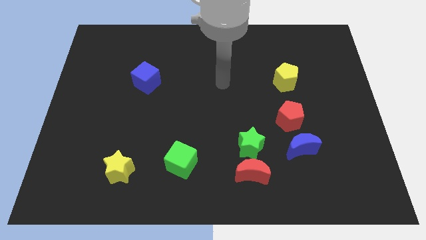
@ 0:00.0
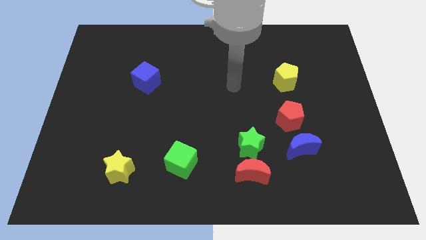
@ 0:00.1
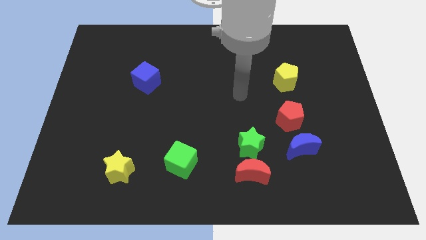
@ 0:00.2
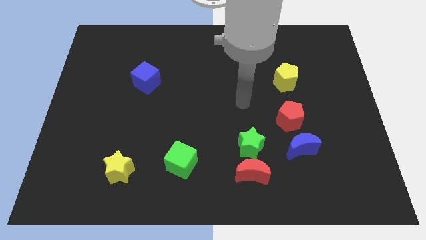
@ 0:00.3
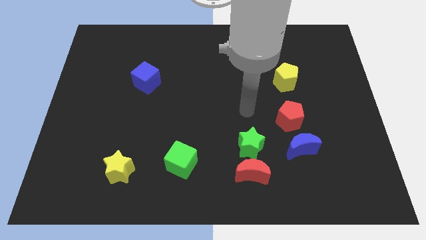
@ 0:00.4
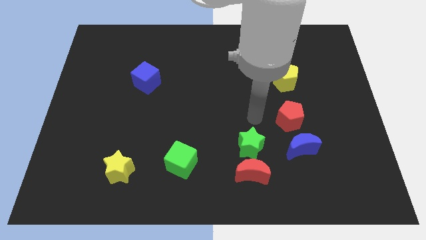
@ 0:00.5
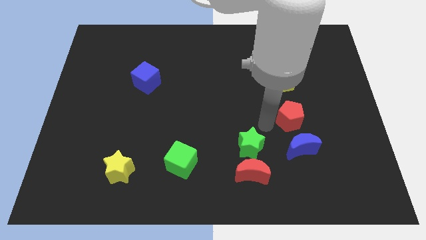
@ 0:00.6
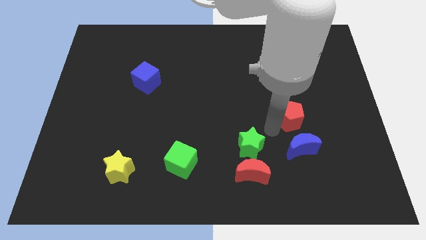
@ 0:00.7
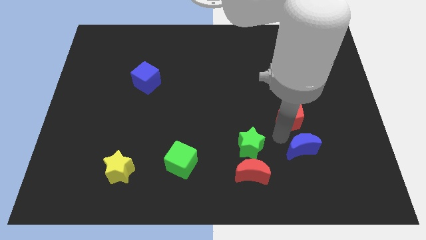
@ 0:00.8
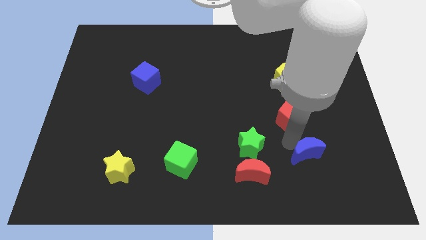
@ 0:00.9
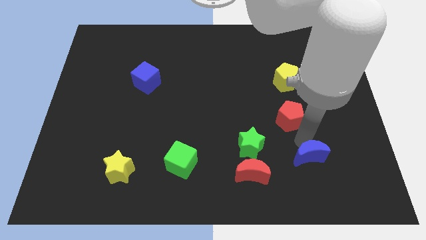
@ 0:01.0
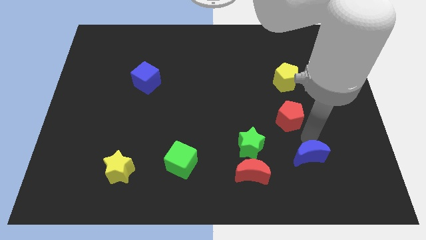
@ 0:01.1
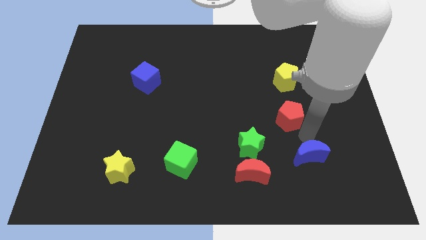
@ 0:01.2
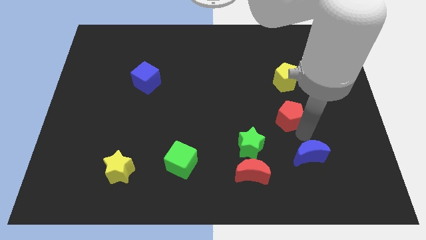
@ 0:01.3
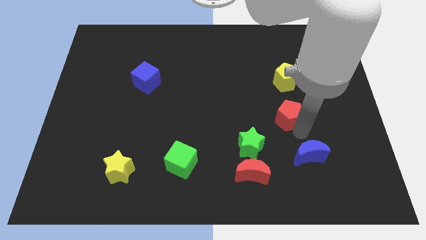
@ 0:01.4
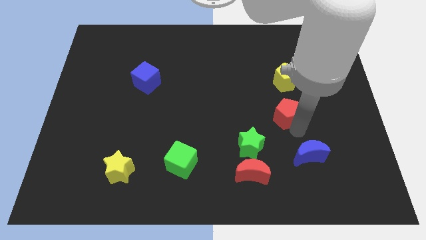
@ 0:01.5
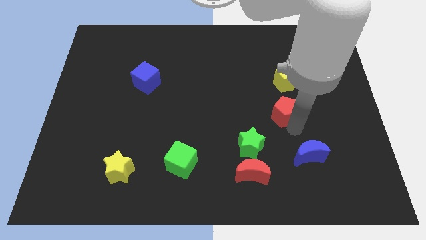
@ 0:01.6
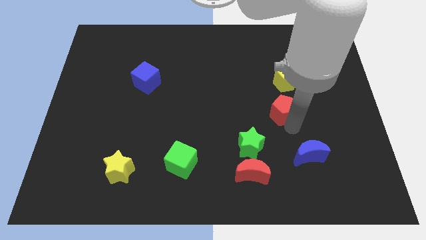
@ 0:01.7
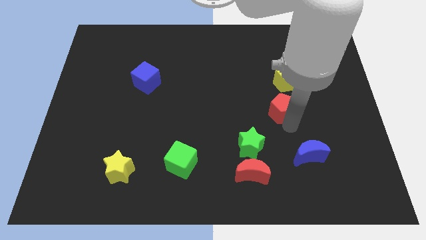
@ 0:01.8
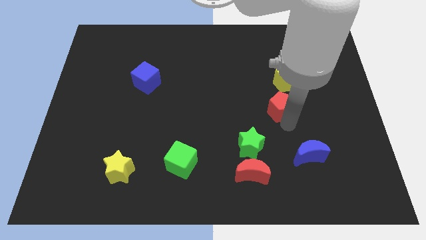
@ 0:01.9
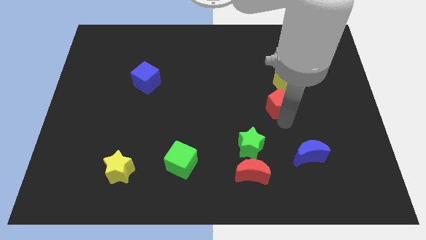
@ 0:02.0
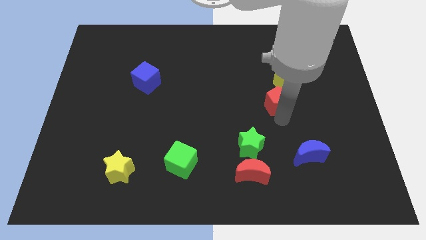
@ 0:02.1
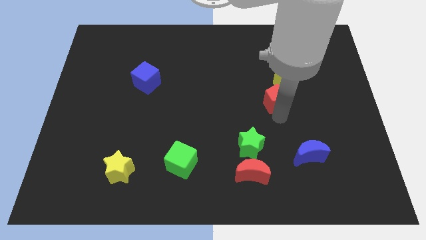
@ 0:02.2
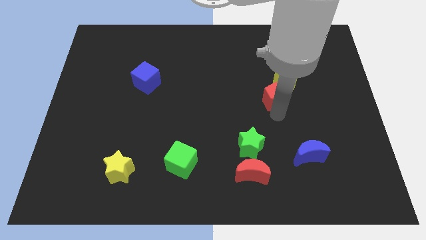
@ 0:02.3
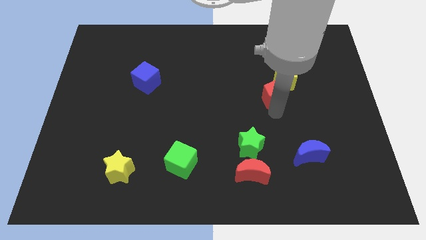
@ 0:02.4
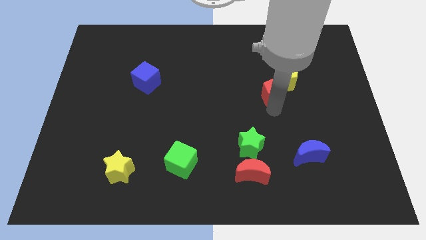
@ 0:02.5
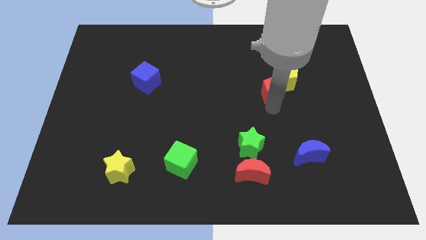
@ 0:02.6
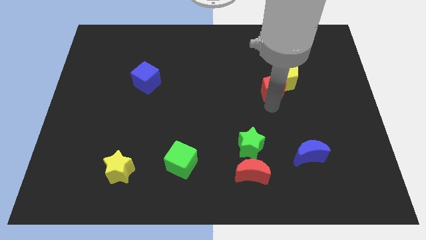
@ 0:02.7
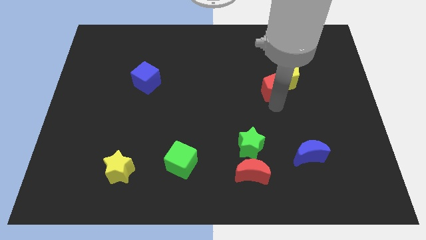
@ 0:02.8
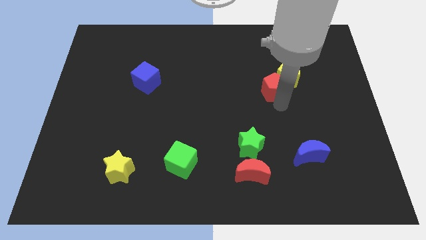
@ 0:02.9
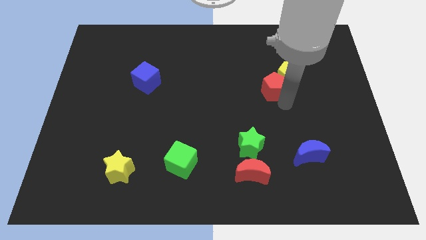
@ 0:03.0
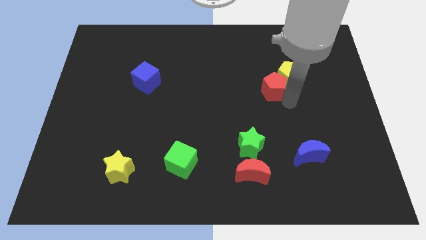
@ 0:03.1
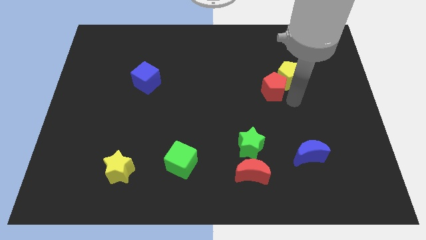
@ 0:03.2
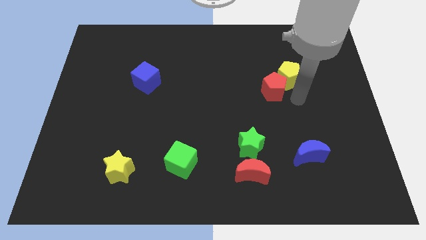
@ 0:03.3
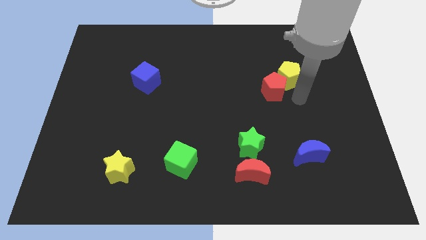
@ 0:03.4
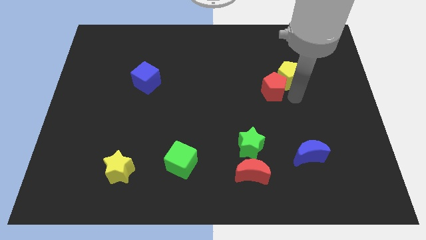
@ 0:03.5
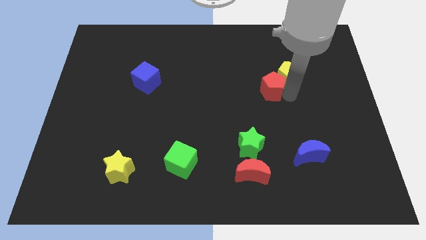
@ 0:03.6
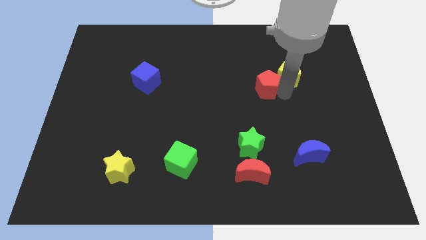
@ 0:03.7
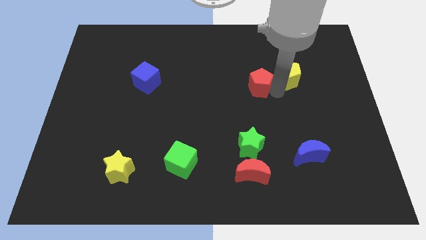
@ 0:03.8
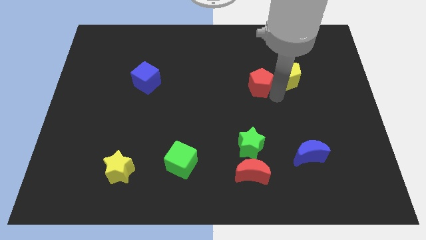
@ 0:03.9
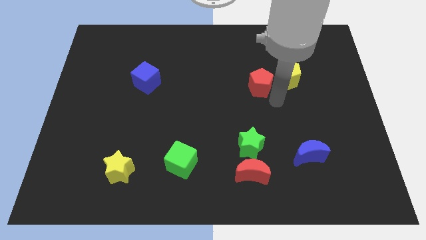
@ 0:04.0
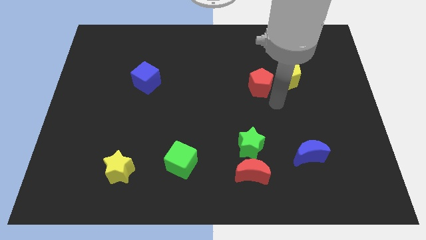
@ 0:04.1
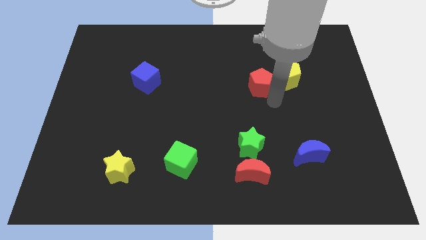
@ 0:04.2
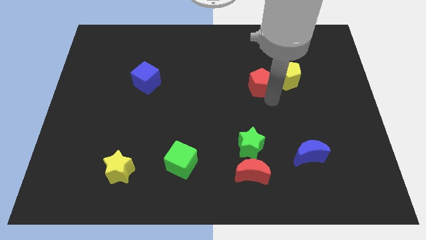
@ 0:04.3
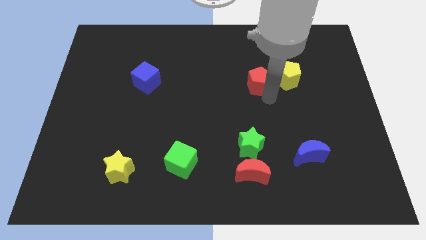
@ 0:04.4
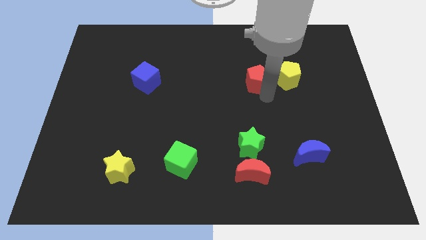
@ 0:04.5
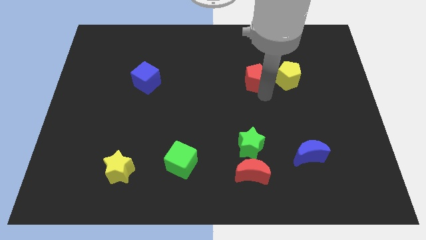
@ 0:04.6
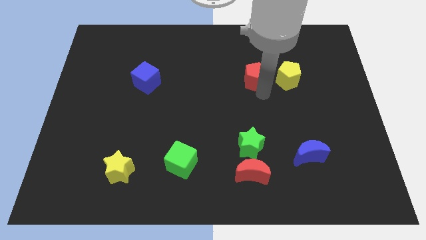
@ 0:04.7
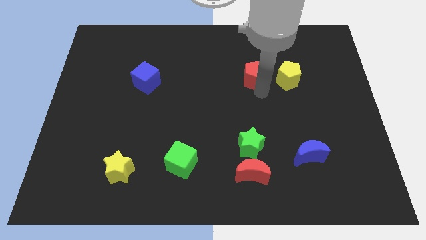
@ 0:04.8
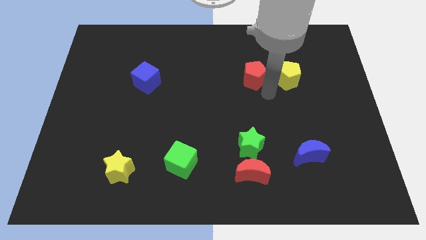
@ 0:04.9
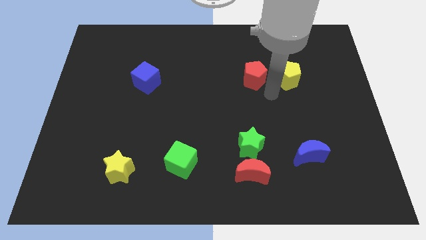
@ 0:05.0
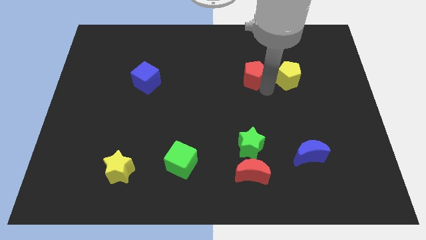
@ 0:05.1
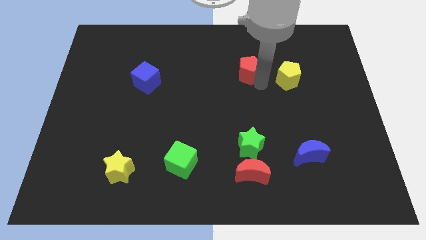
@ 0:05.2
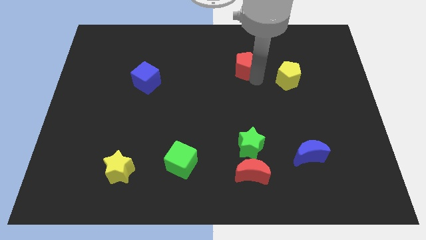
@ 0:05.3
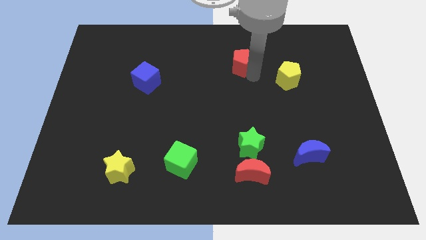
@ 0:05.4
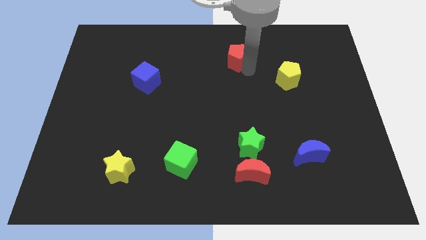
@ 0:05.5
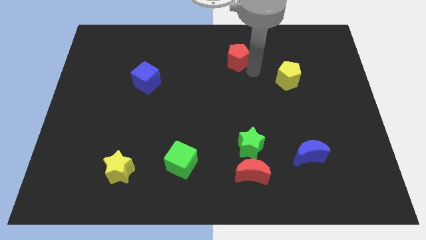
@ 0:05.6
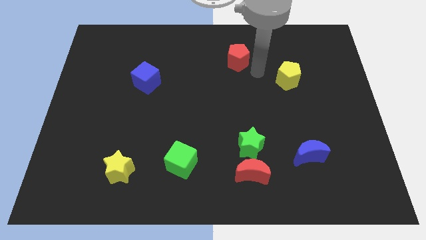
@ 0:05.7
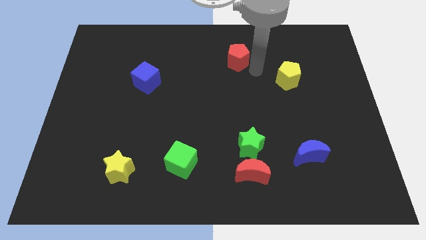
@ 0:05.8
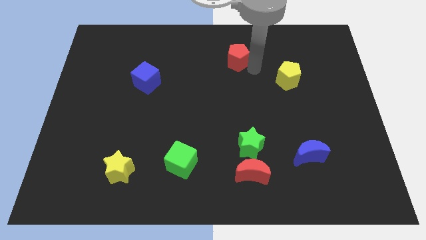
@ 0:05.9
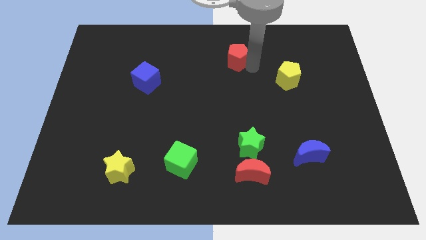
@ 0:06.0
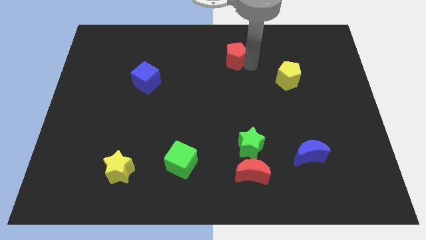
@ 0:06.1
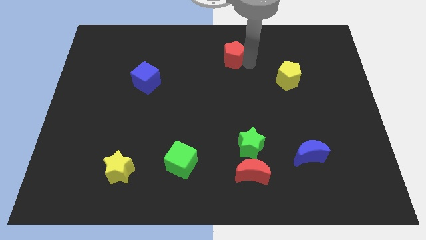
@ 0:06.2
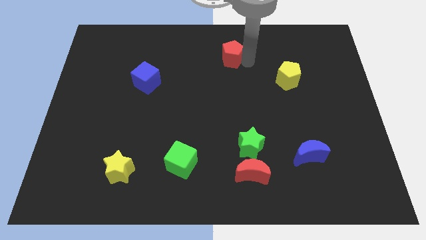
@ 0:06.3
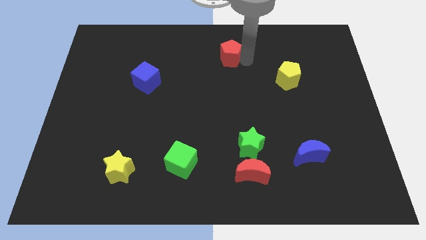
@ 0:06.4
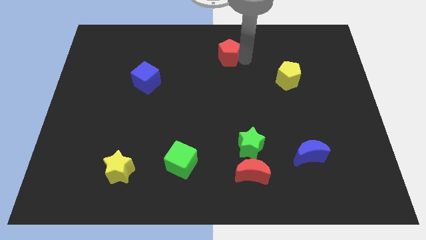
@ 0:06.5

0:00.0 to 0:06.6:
push the red pentagon to the towards your base
